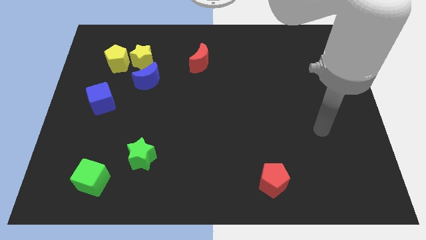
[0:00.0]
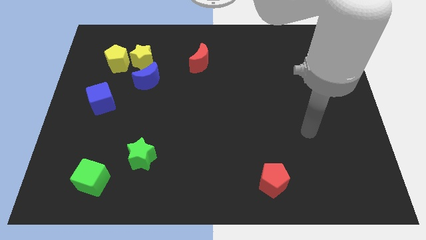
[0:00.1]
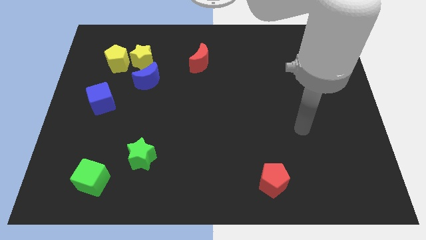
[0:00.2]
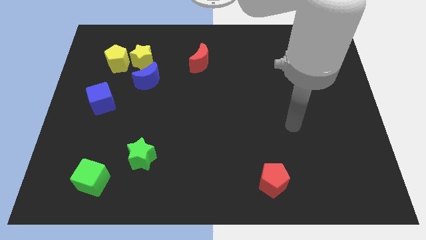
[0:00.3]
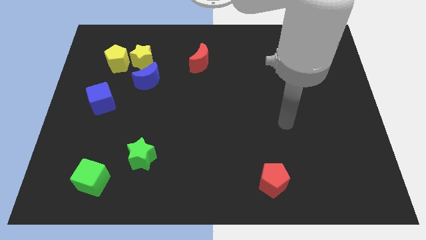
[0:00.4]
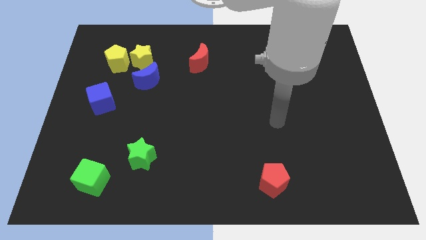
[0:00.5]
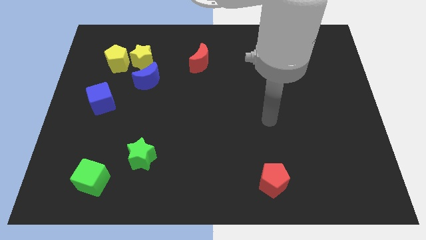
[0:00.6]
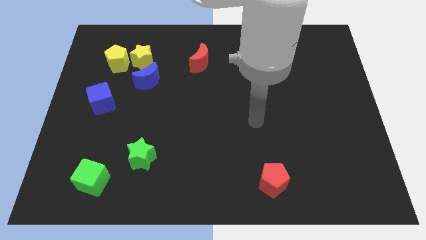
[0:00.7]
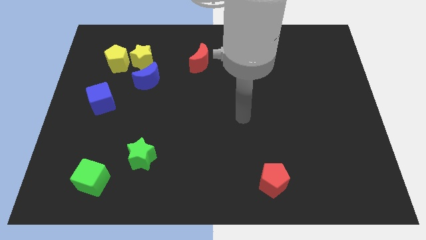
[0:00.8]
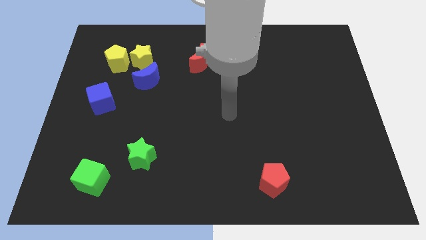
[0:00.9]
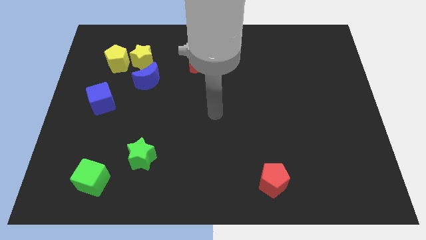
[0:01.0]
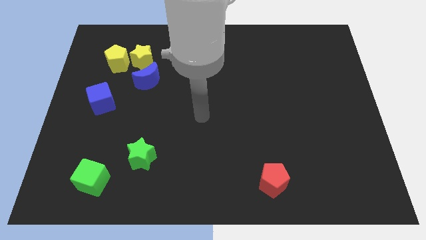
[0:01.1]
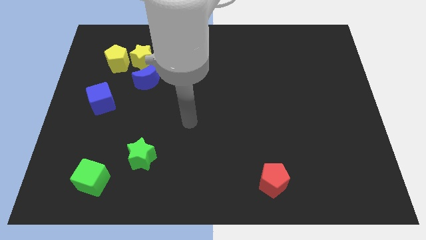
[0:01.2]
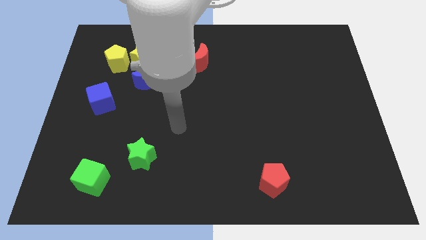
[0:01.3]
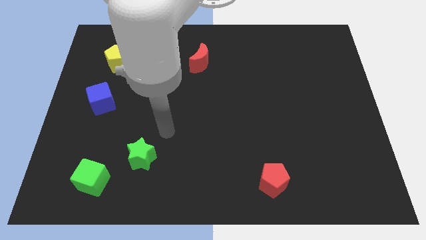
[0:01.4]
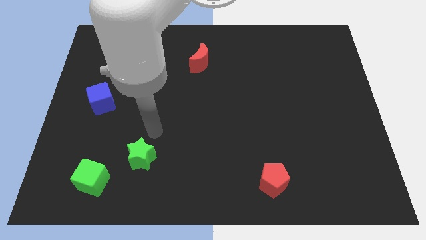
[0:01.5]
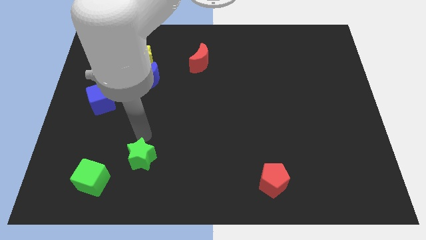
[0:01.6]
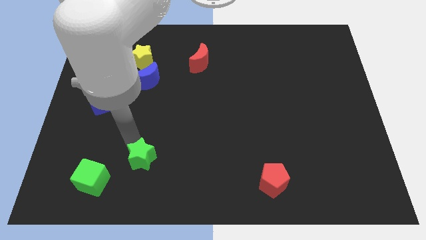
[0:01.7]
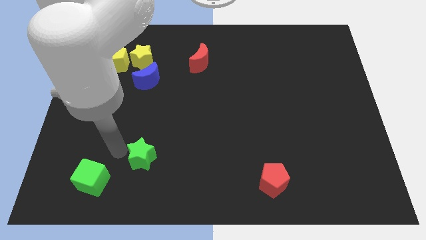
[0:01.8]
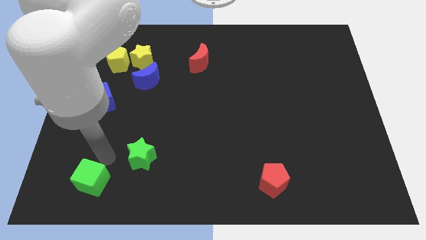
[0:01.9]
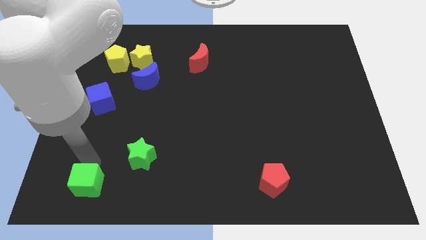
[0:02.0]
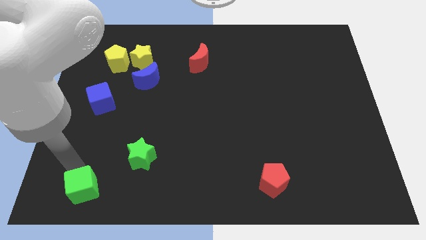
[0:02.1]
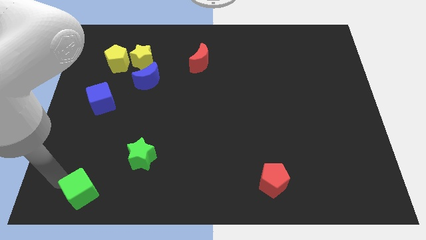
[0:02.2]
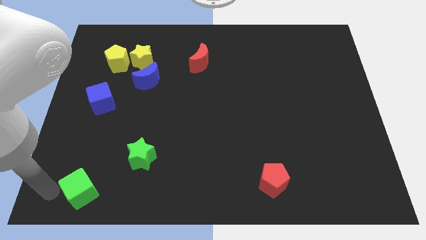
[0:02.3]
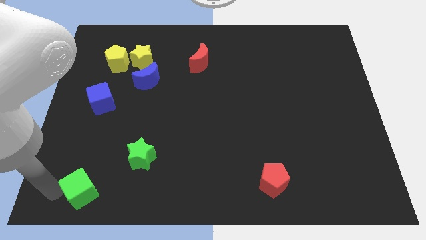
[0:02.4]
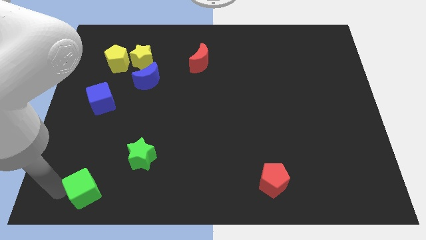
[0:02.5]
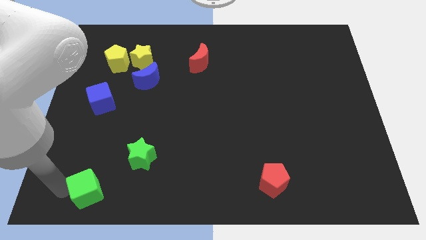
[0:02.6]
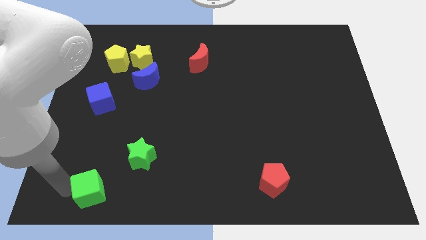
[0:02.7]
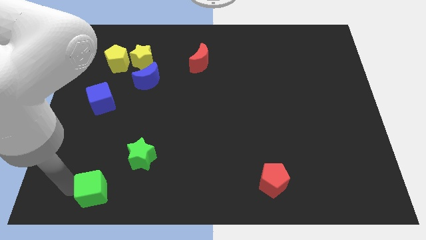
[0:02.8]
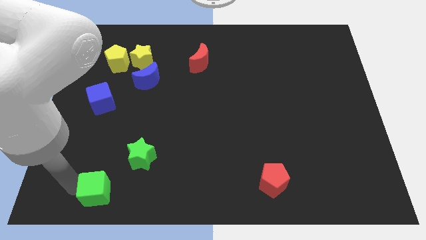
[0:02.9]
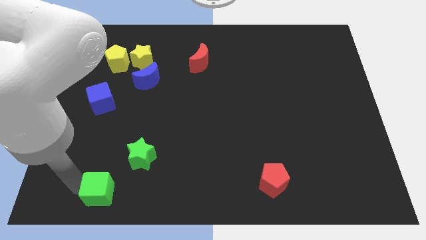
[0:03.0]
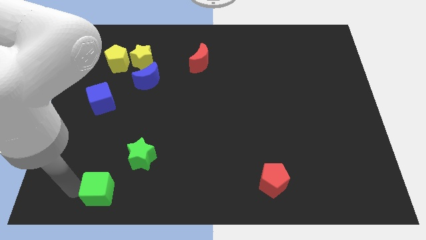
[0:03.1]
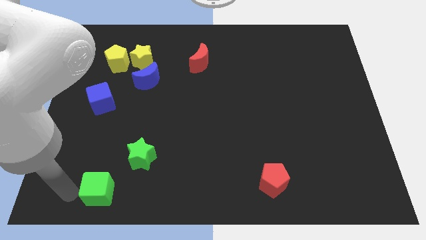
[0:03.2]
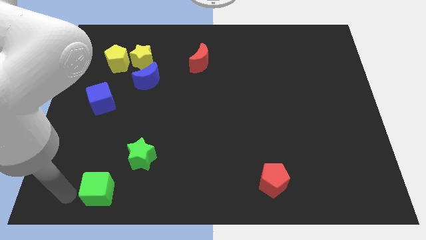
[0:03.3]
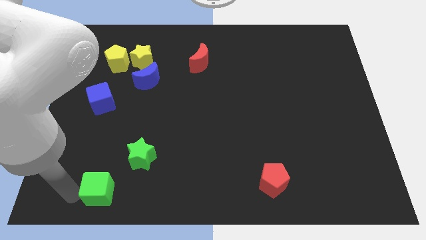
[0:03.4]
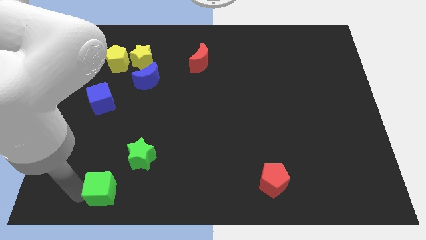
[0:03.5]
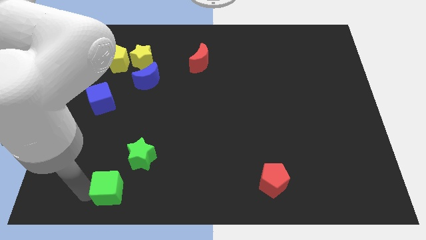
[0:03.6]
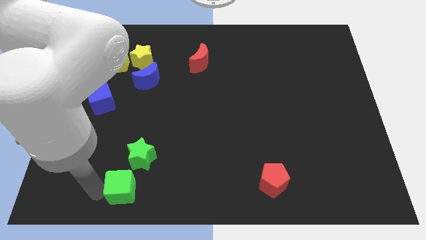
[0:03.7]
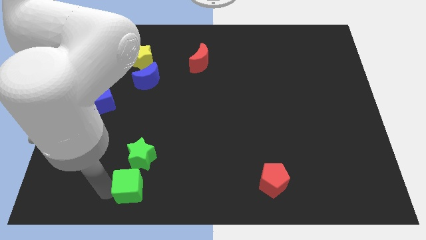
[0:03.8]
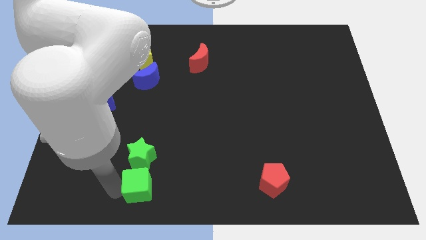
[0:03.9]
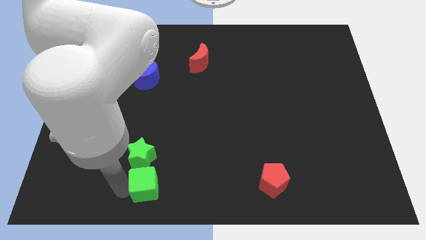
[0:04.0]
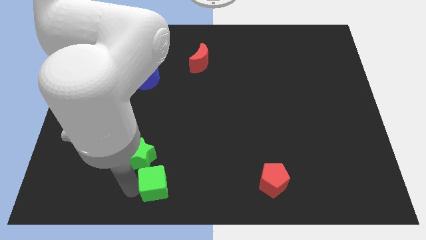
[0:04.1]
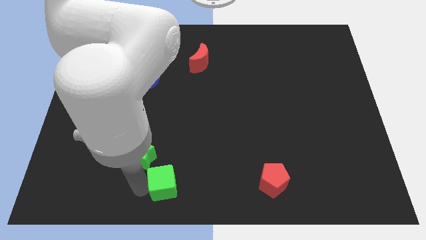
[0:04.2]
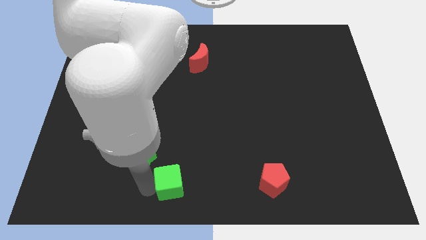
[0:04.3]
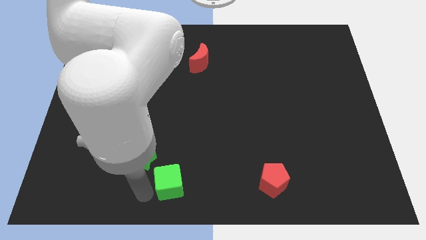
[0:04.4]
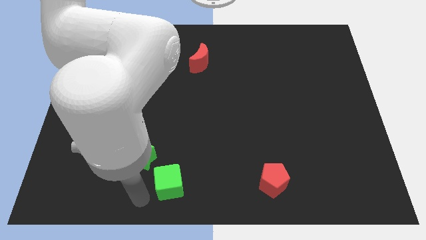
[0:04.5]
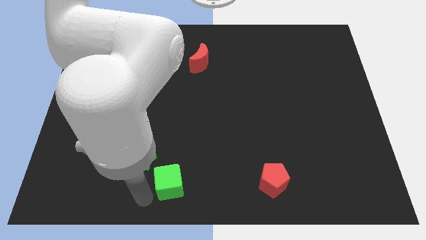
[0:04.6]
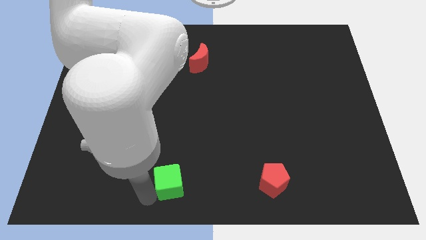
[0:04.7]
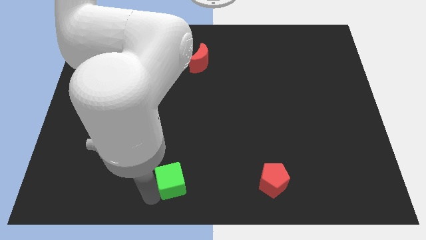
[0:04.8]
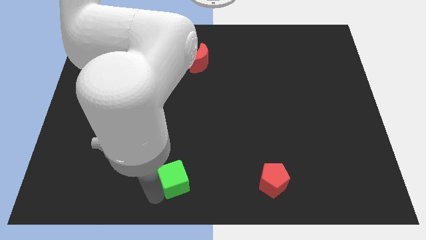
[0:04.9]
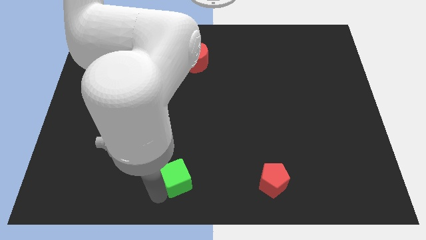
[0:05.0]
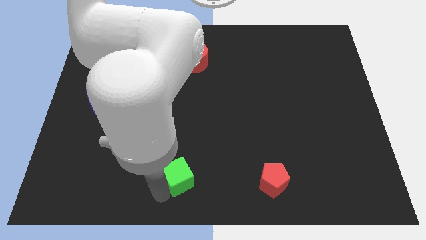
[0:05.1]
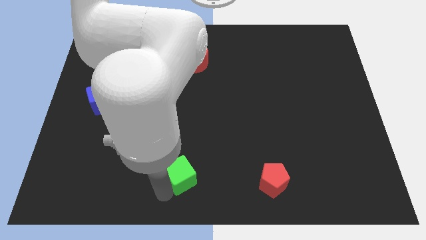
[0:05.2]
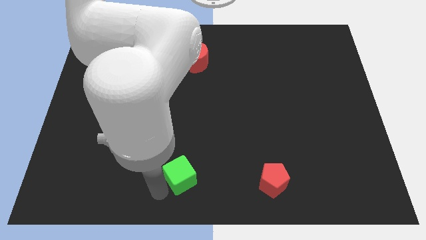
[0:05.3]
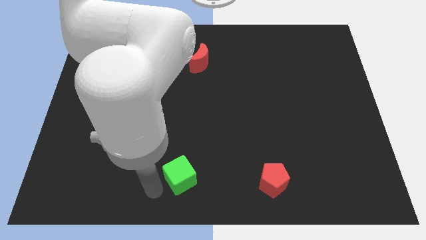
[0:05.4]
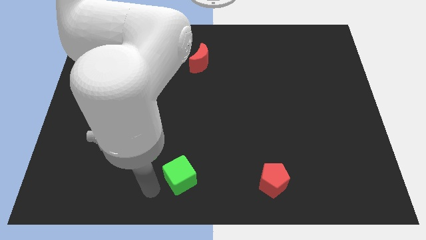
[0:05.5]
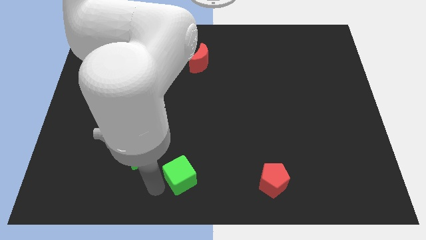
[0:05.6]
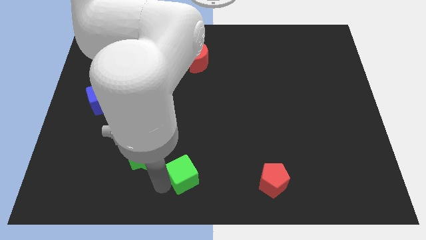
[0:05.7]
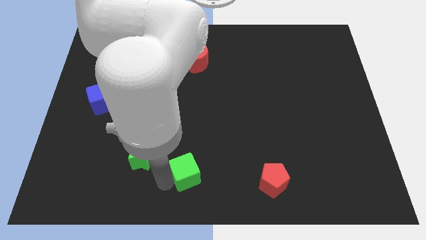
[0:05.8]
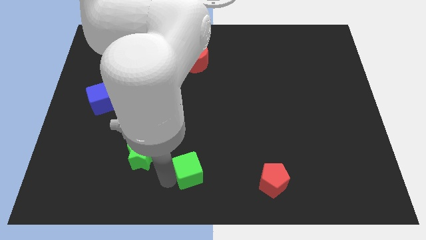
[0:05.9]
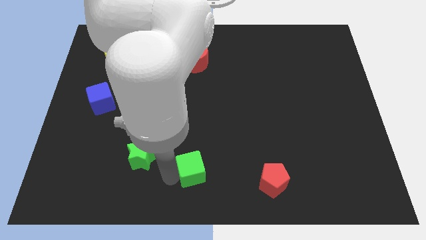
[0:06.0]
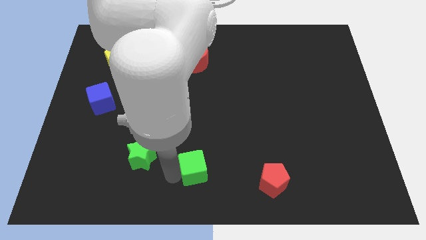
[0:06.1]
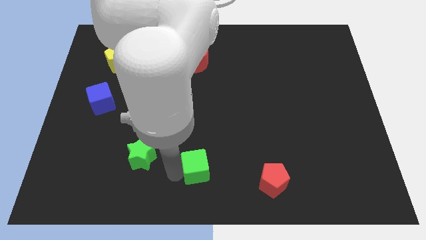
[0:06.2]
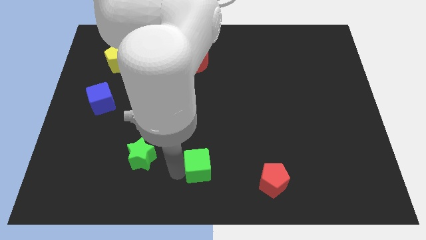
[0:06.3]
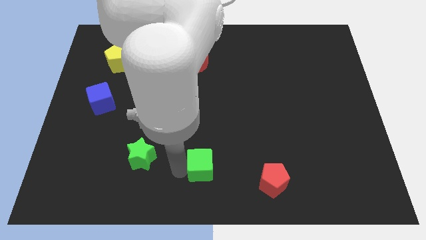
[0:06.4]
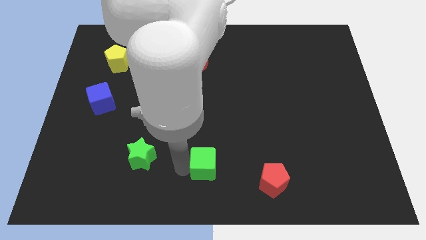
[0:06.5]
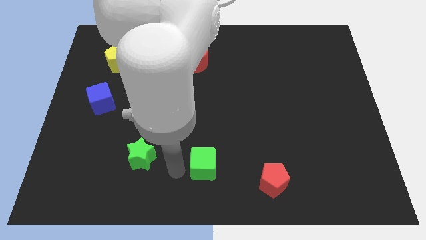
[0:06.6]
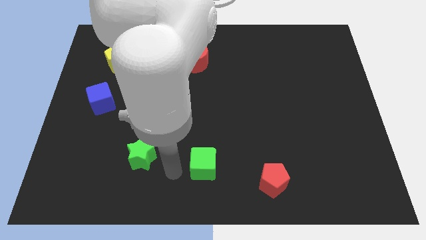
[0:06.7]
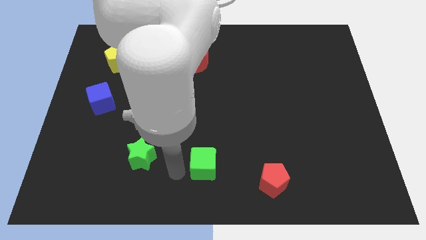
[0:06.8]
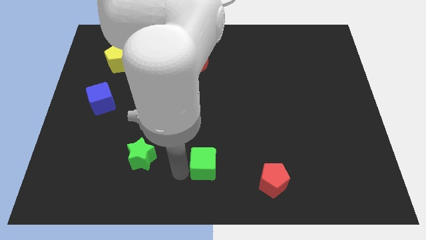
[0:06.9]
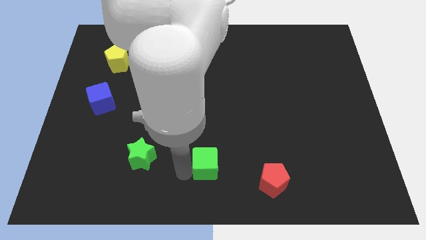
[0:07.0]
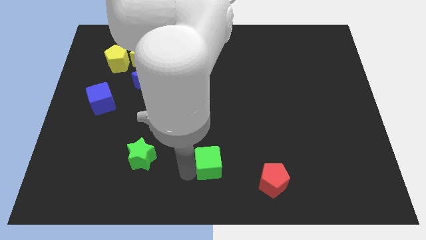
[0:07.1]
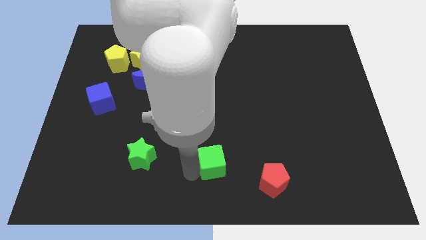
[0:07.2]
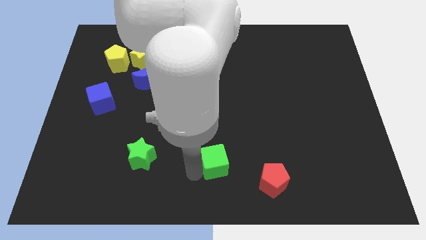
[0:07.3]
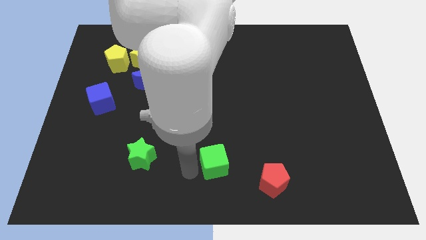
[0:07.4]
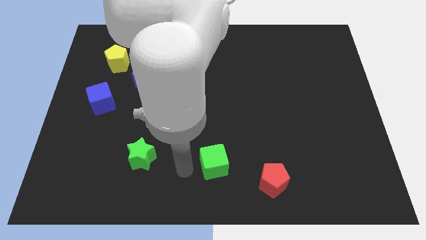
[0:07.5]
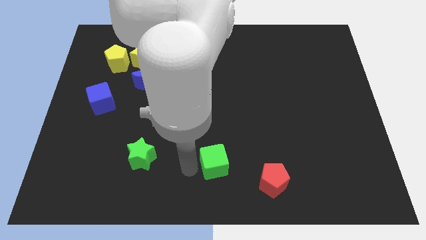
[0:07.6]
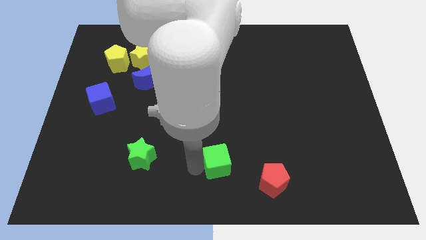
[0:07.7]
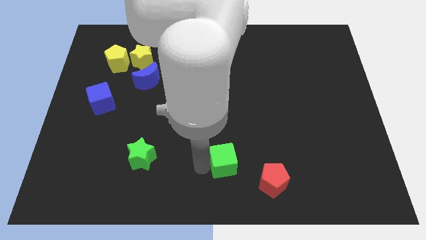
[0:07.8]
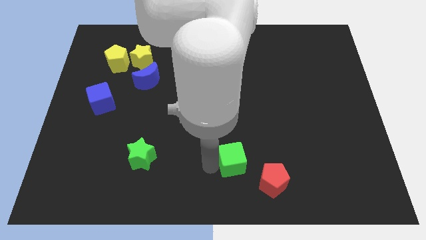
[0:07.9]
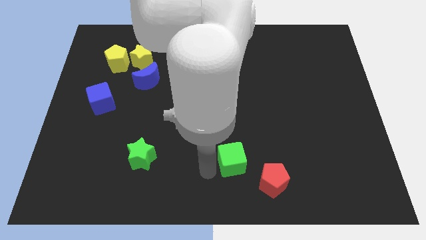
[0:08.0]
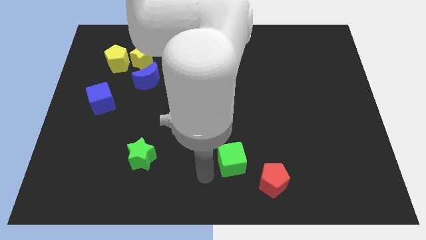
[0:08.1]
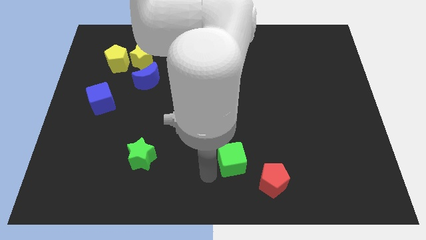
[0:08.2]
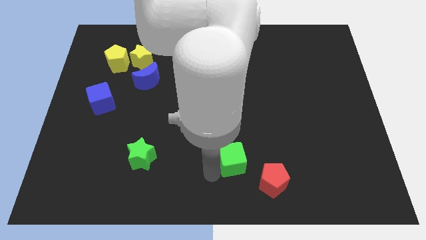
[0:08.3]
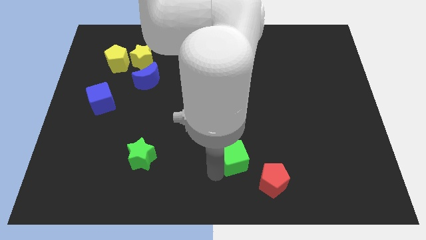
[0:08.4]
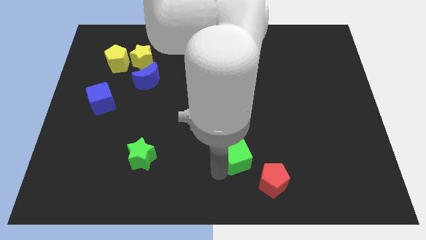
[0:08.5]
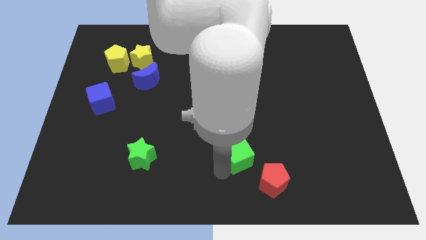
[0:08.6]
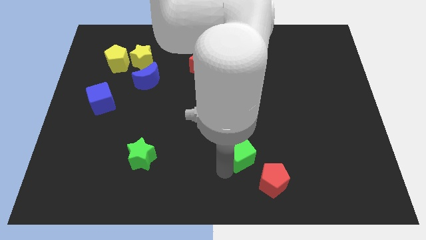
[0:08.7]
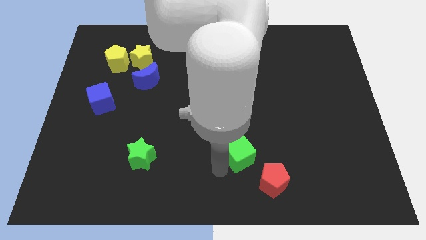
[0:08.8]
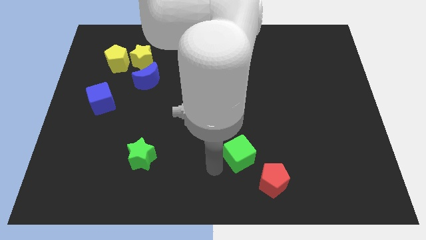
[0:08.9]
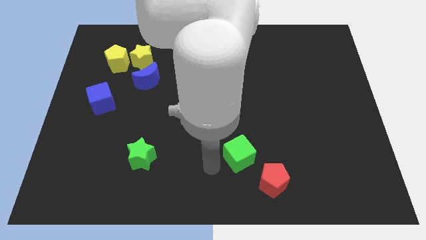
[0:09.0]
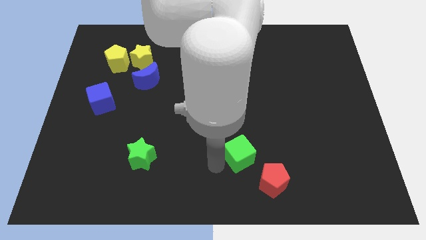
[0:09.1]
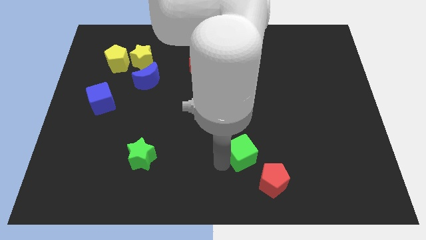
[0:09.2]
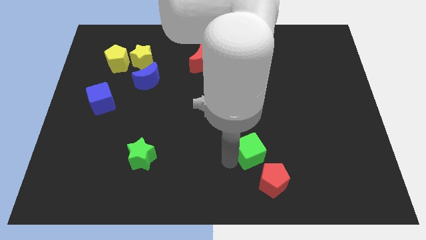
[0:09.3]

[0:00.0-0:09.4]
put the green cube to the top of the red pentagon
